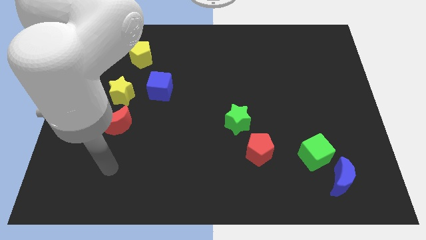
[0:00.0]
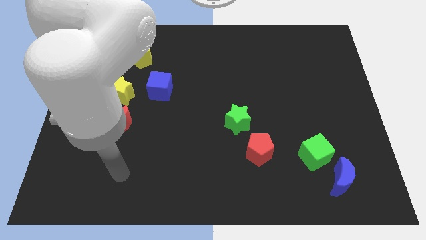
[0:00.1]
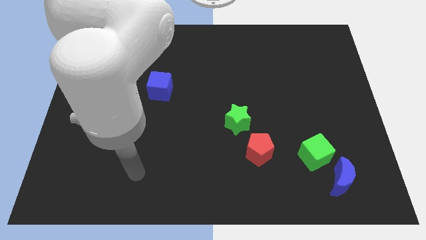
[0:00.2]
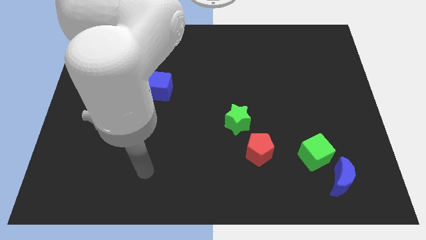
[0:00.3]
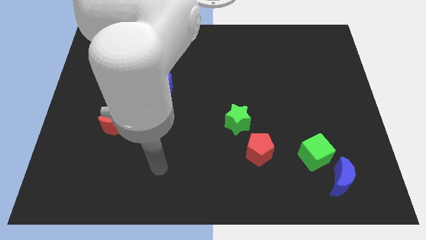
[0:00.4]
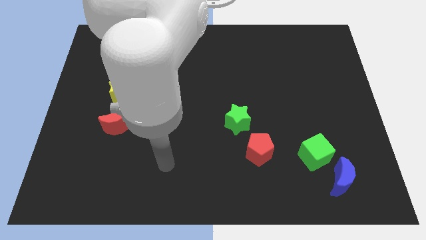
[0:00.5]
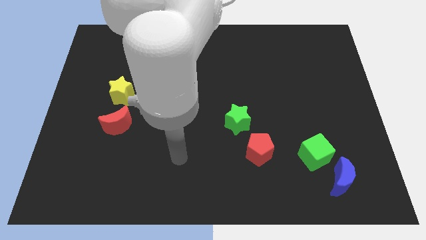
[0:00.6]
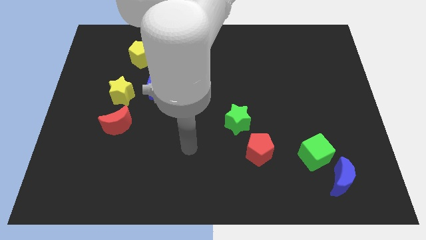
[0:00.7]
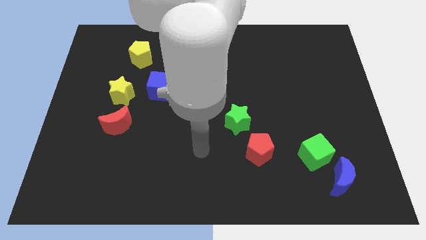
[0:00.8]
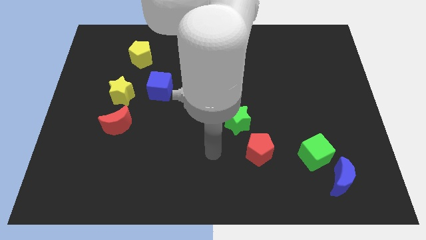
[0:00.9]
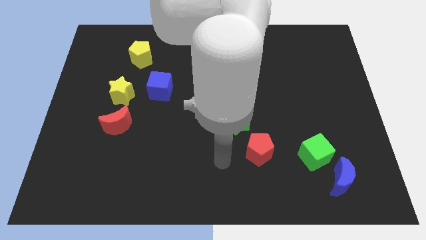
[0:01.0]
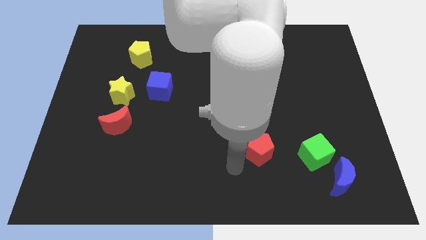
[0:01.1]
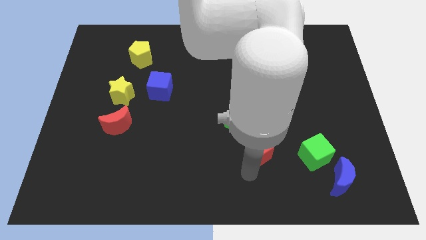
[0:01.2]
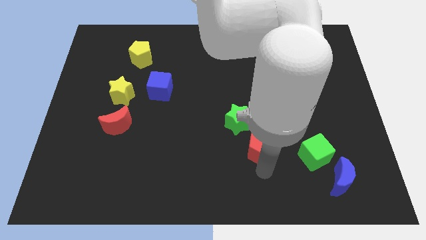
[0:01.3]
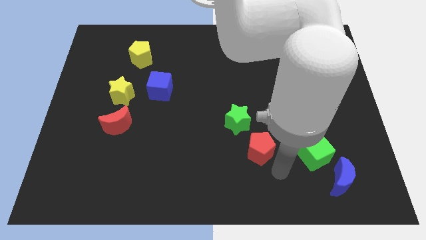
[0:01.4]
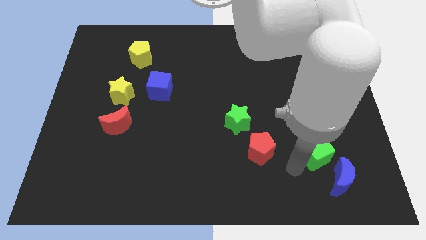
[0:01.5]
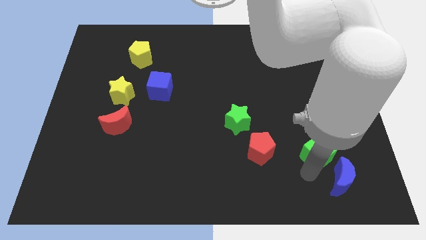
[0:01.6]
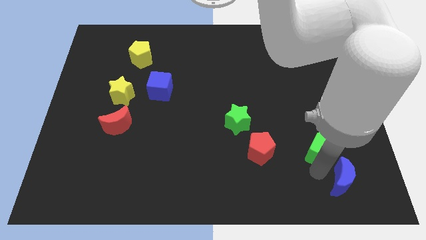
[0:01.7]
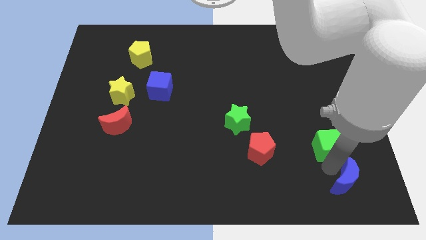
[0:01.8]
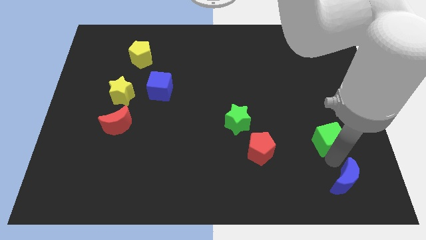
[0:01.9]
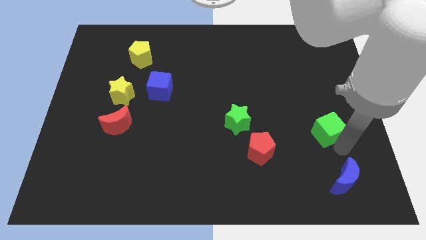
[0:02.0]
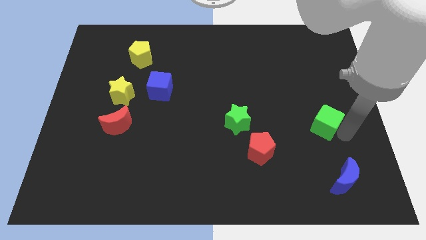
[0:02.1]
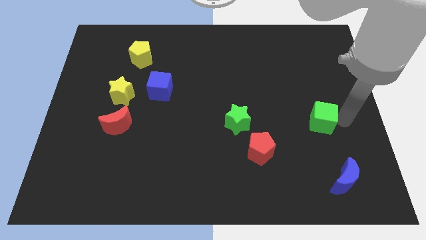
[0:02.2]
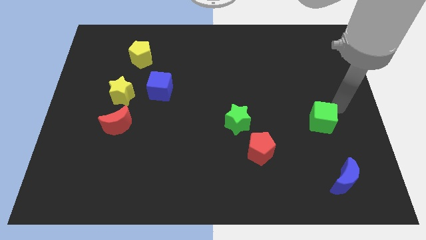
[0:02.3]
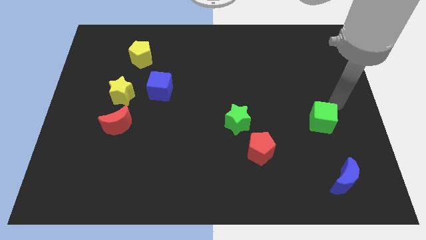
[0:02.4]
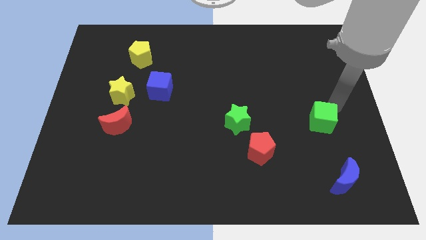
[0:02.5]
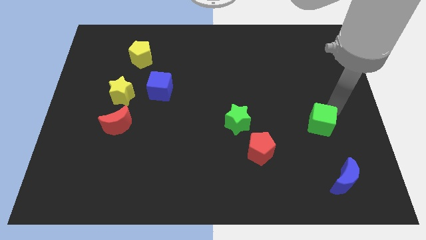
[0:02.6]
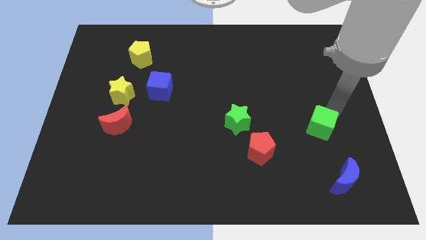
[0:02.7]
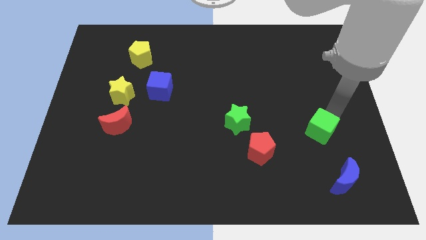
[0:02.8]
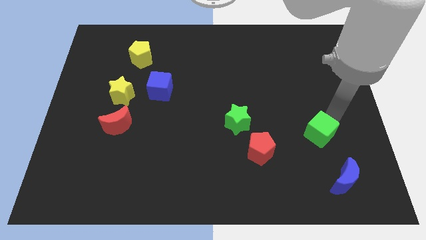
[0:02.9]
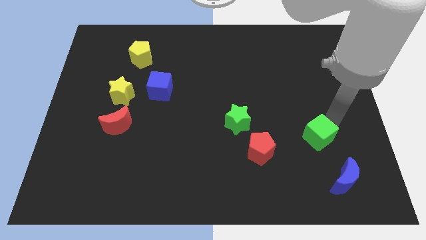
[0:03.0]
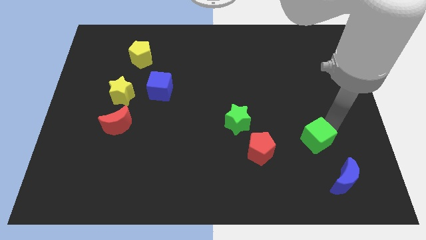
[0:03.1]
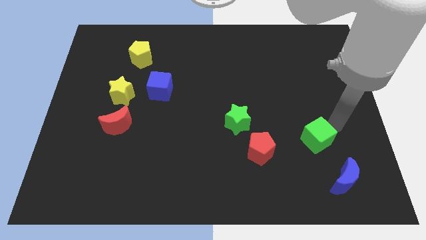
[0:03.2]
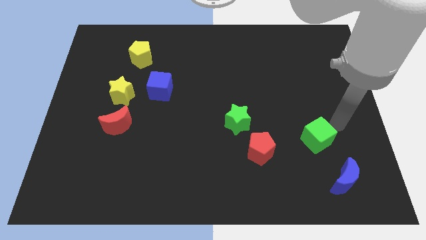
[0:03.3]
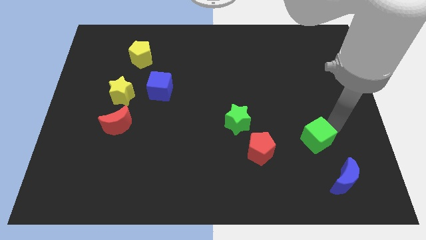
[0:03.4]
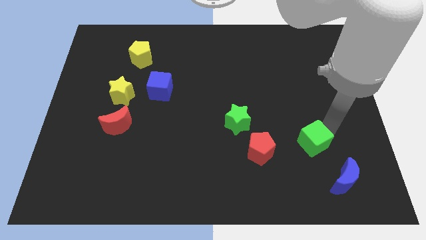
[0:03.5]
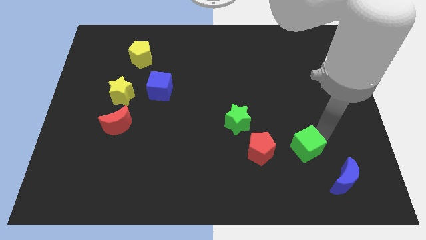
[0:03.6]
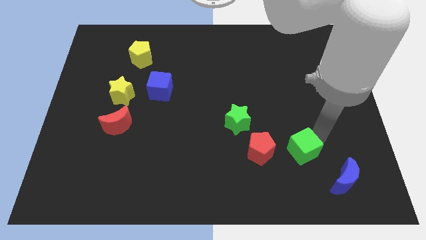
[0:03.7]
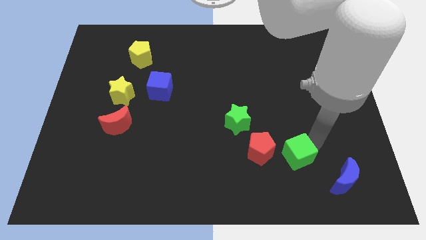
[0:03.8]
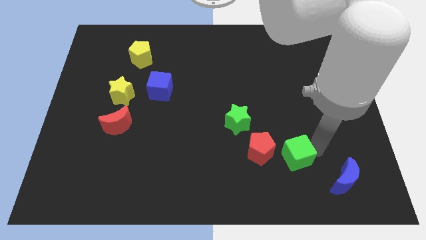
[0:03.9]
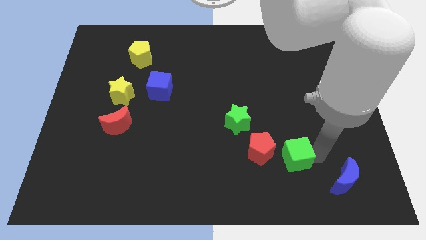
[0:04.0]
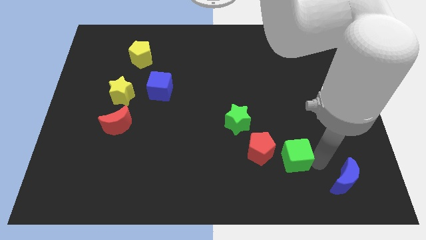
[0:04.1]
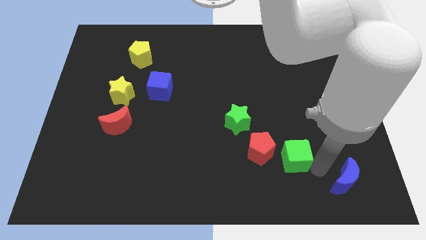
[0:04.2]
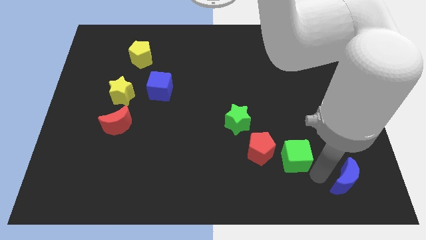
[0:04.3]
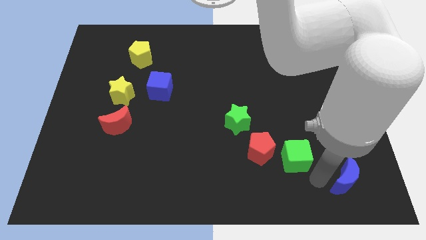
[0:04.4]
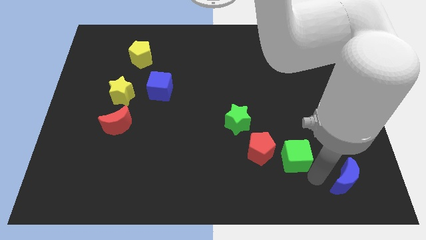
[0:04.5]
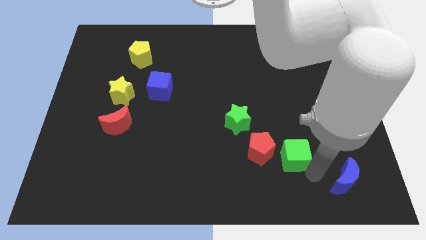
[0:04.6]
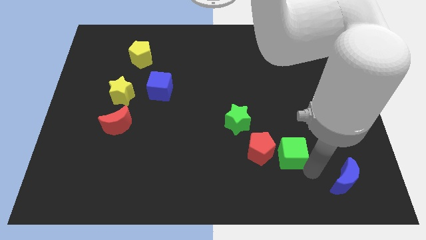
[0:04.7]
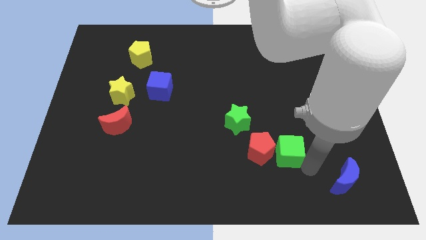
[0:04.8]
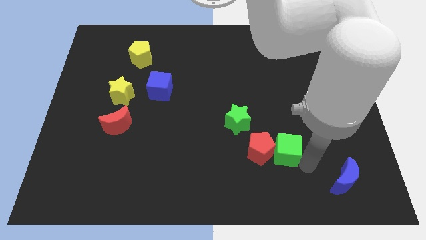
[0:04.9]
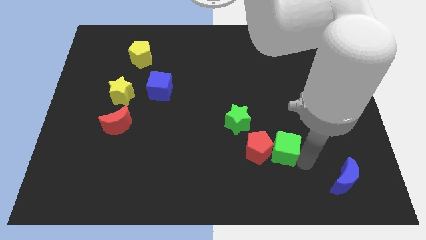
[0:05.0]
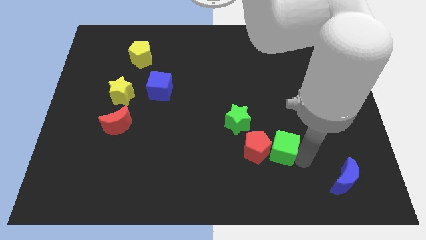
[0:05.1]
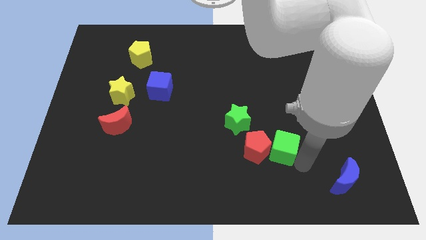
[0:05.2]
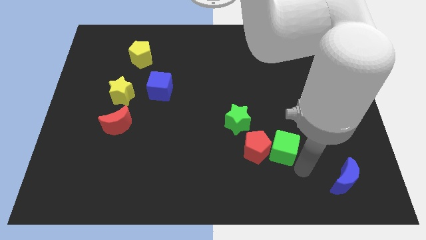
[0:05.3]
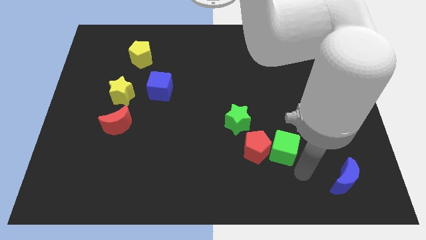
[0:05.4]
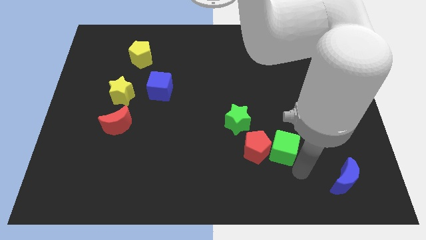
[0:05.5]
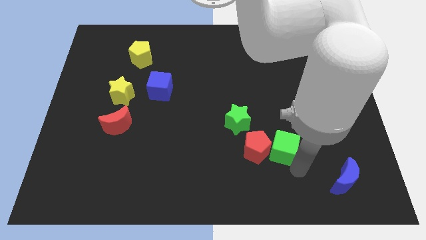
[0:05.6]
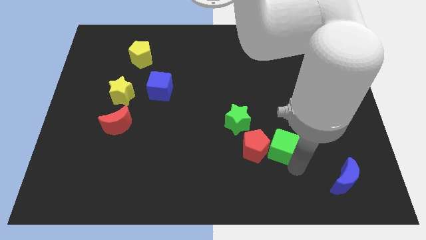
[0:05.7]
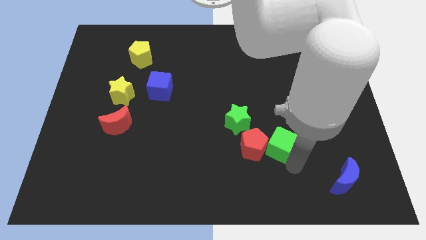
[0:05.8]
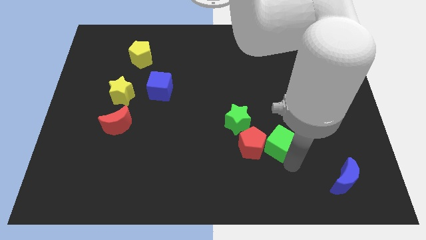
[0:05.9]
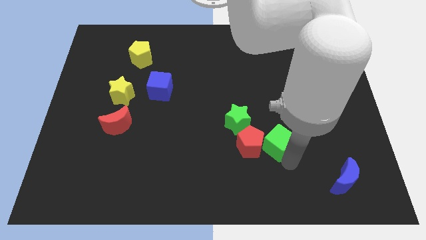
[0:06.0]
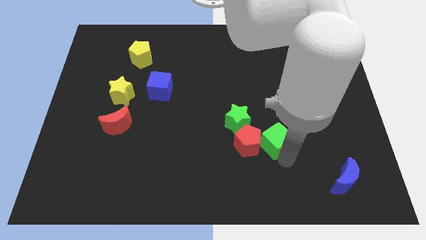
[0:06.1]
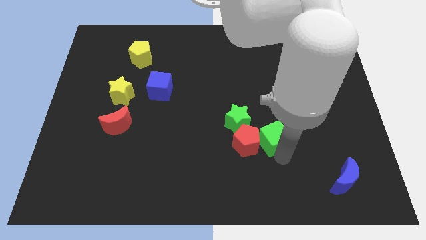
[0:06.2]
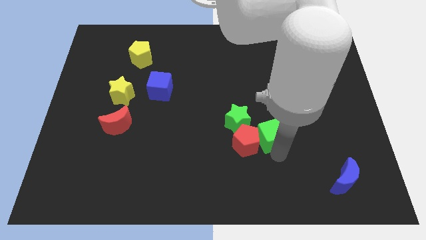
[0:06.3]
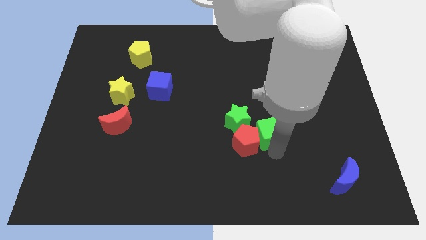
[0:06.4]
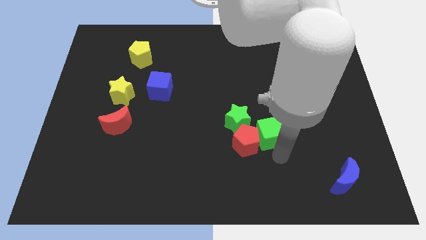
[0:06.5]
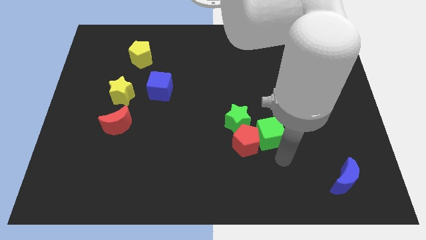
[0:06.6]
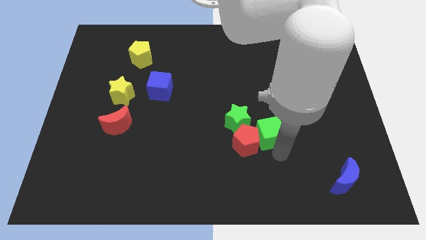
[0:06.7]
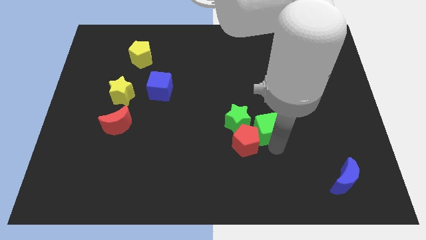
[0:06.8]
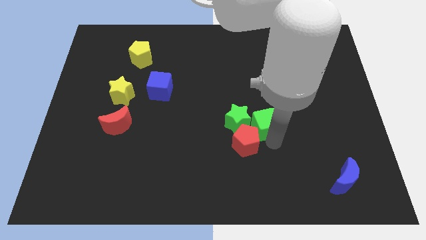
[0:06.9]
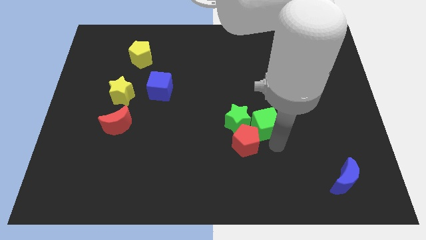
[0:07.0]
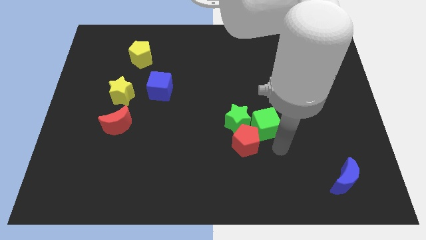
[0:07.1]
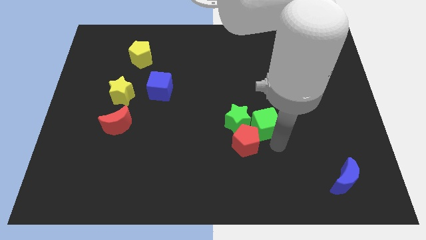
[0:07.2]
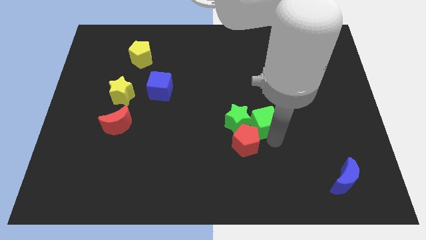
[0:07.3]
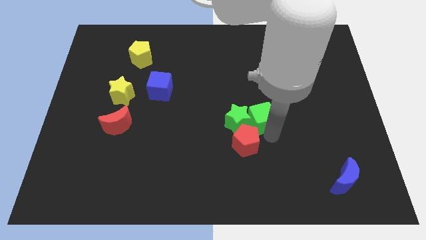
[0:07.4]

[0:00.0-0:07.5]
slide the green cube to the middle

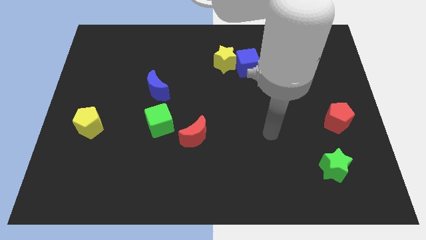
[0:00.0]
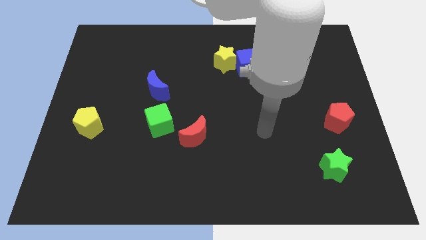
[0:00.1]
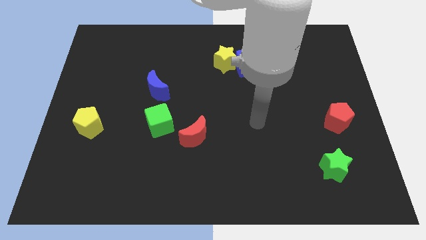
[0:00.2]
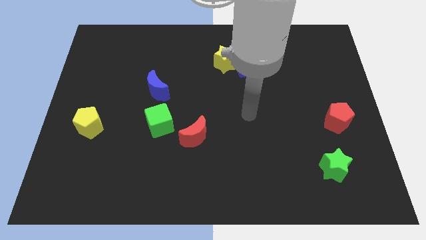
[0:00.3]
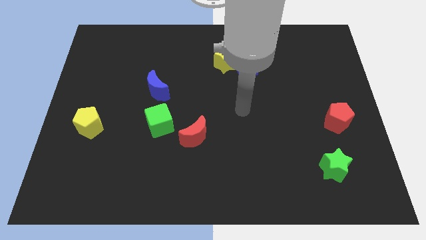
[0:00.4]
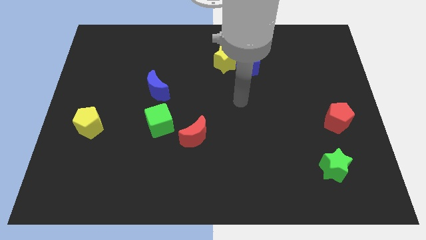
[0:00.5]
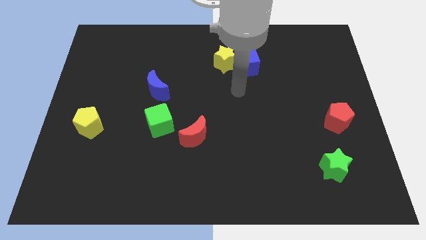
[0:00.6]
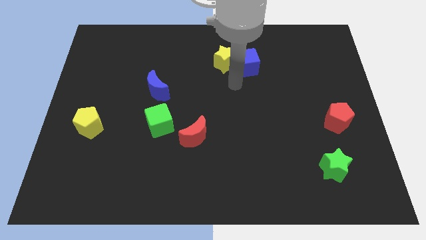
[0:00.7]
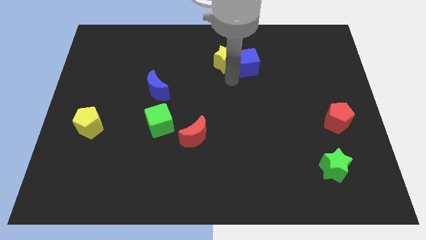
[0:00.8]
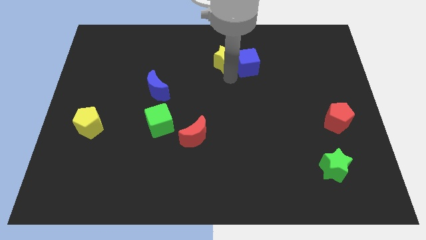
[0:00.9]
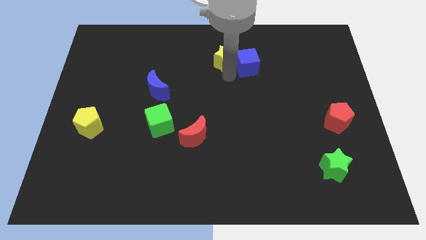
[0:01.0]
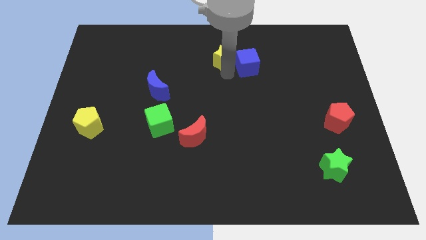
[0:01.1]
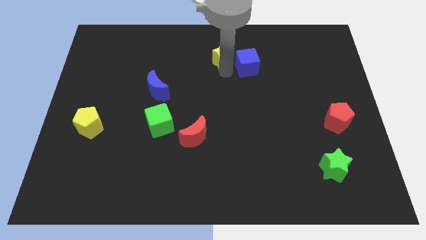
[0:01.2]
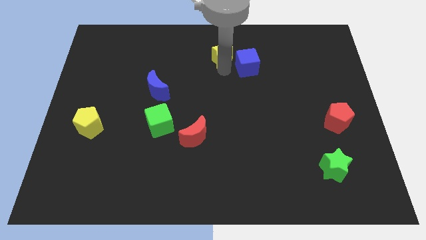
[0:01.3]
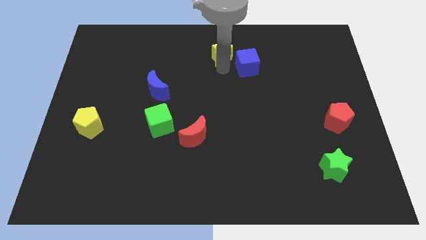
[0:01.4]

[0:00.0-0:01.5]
push the yellow star to the top
